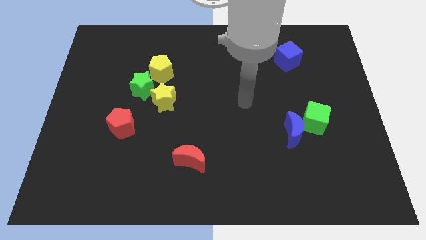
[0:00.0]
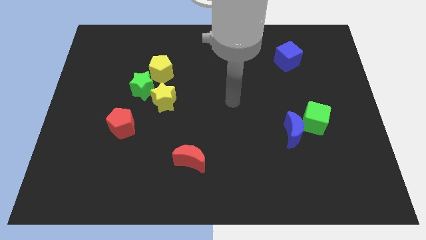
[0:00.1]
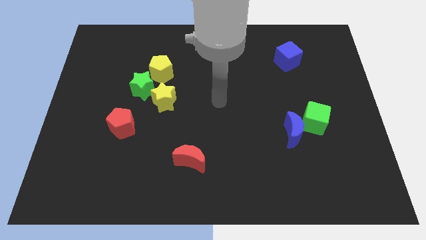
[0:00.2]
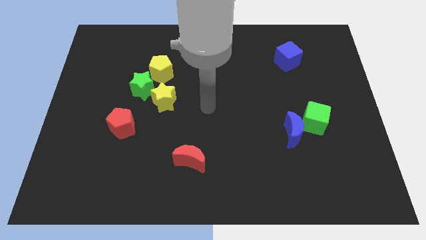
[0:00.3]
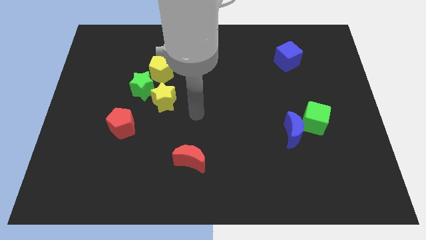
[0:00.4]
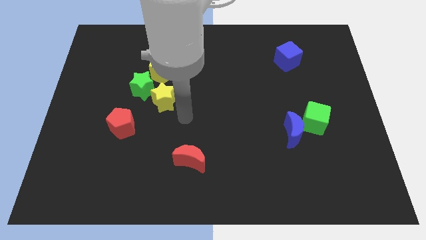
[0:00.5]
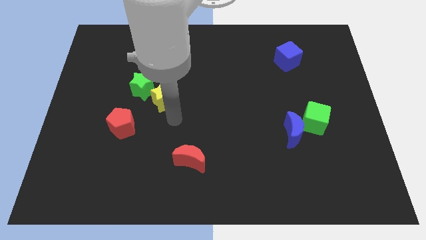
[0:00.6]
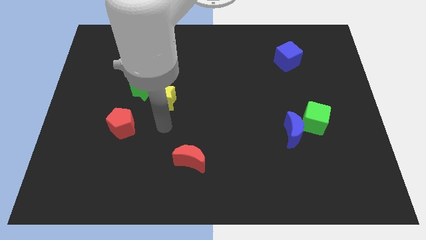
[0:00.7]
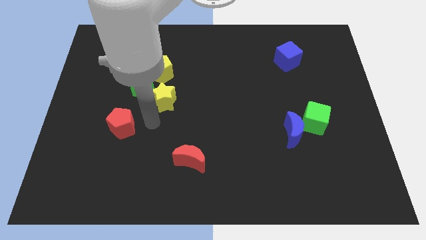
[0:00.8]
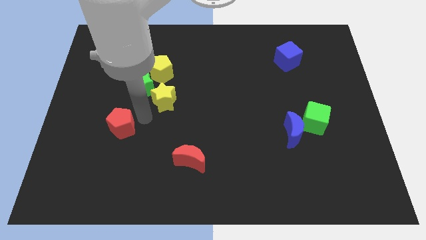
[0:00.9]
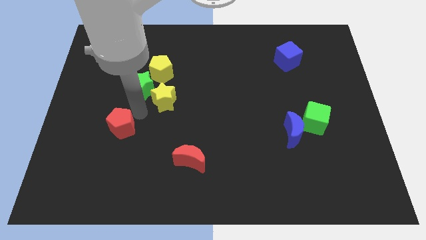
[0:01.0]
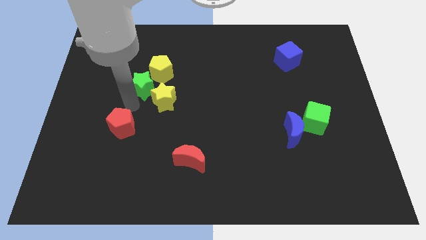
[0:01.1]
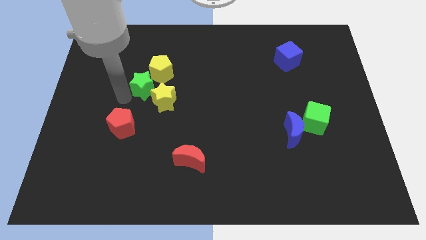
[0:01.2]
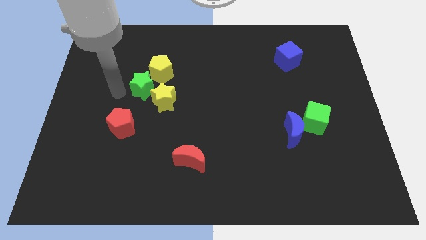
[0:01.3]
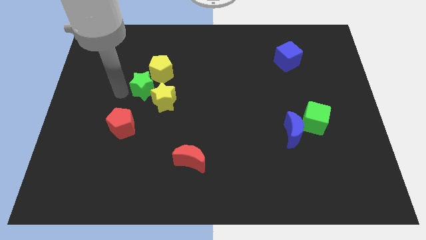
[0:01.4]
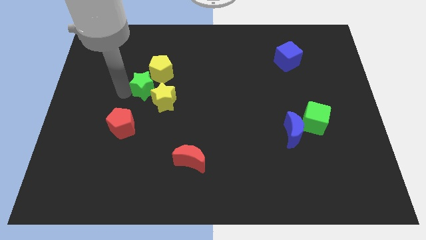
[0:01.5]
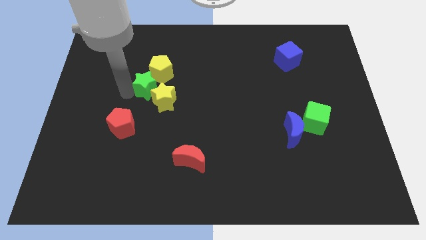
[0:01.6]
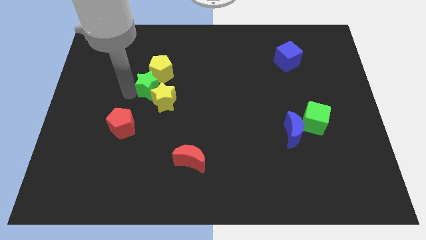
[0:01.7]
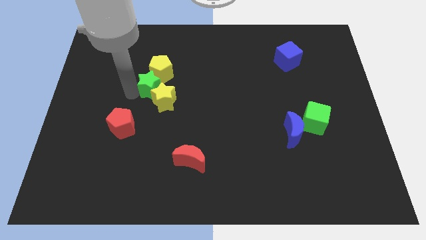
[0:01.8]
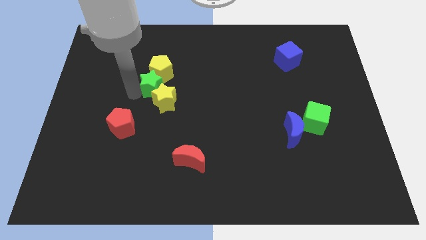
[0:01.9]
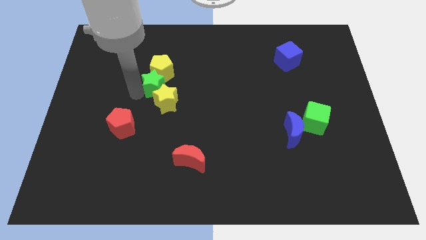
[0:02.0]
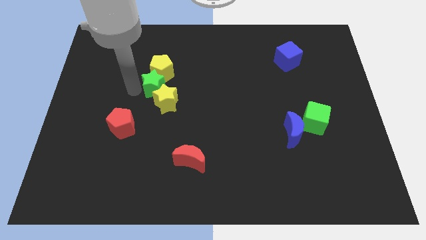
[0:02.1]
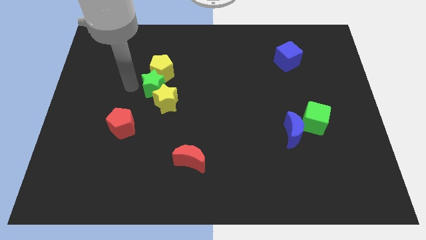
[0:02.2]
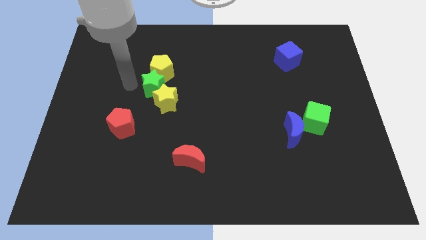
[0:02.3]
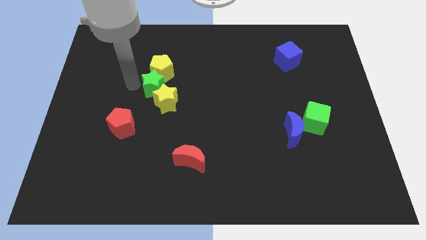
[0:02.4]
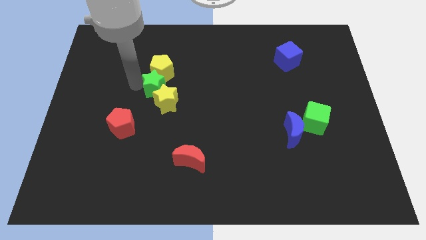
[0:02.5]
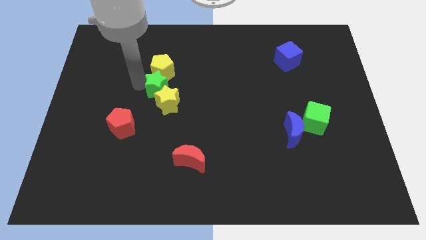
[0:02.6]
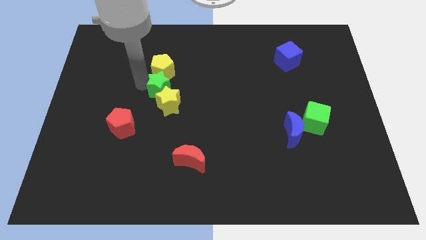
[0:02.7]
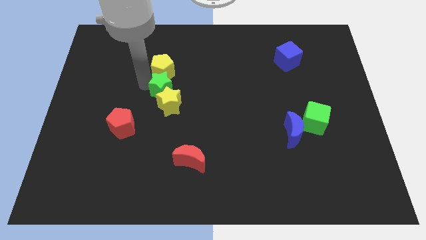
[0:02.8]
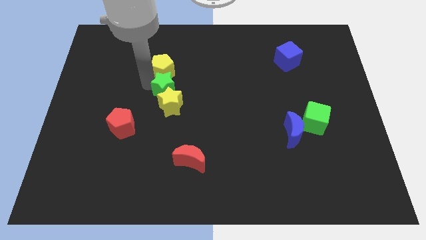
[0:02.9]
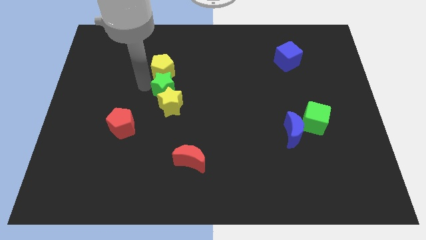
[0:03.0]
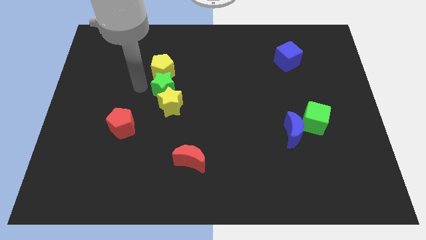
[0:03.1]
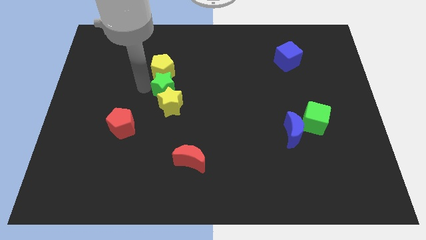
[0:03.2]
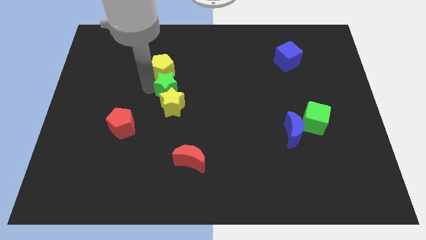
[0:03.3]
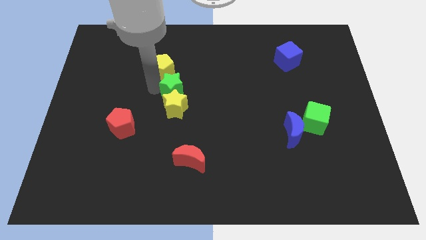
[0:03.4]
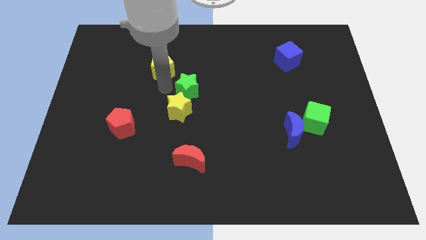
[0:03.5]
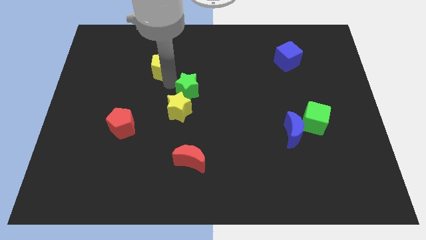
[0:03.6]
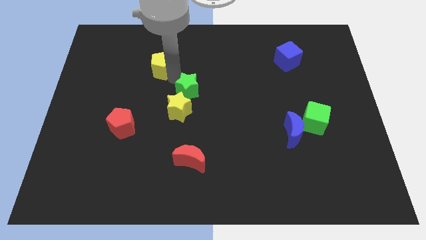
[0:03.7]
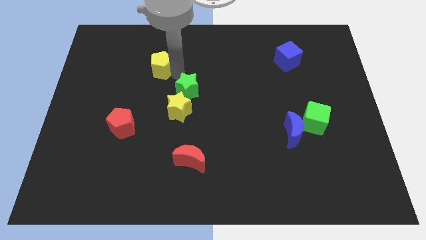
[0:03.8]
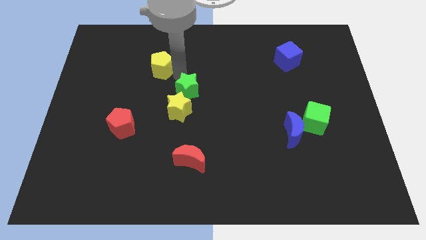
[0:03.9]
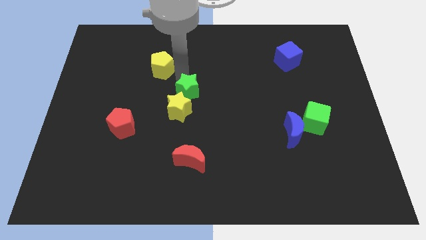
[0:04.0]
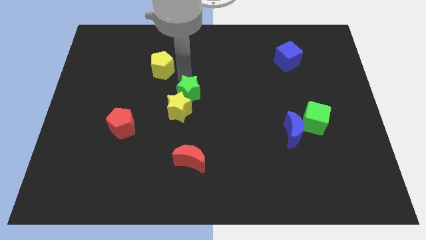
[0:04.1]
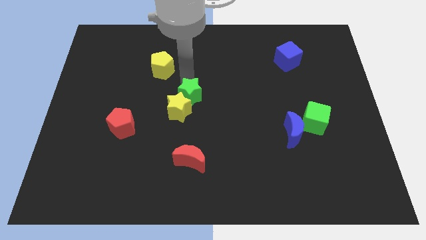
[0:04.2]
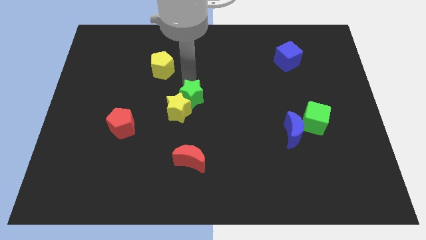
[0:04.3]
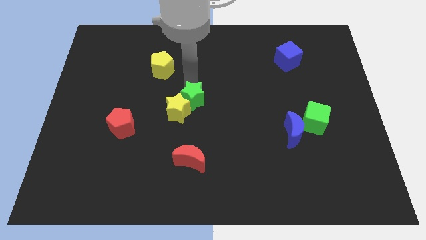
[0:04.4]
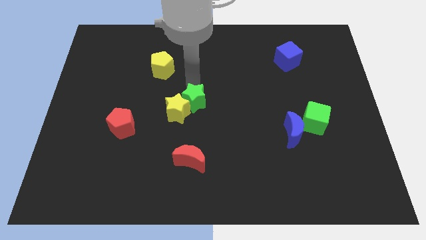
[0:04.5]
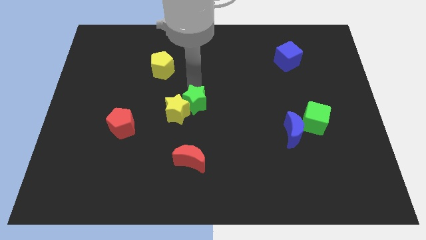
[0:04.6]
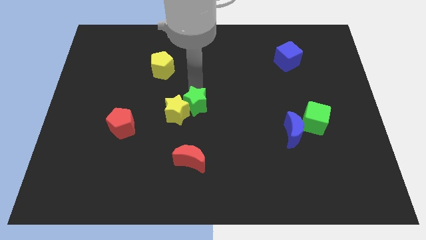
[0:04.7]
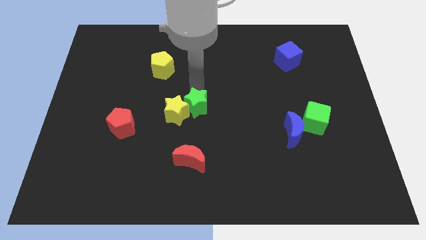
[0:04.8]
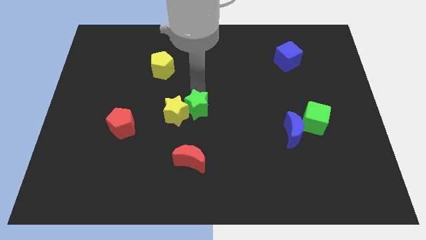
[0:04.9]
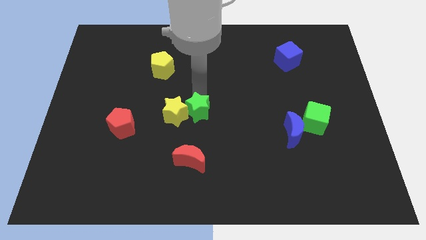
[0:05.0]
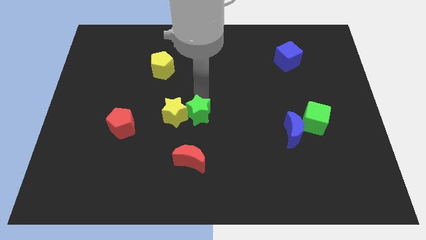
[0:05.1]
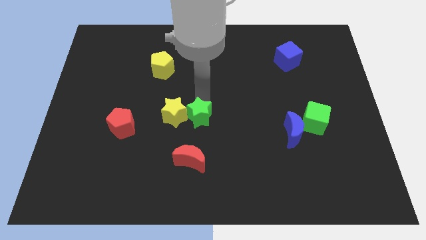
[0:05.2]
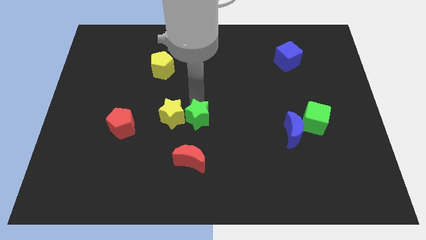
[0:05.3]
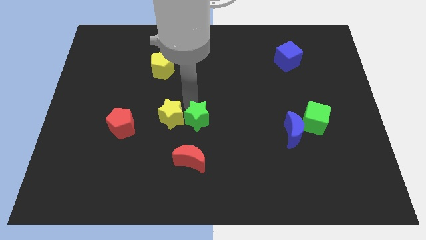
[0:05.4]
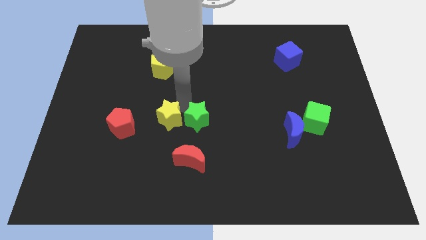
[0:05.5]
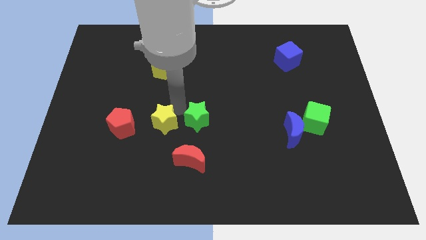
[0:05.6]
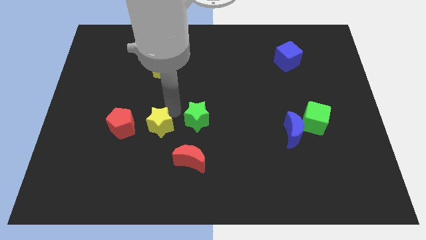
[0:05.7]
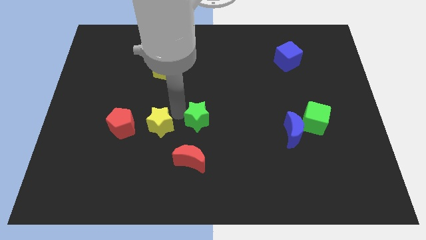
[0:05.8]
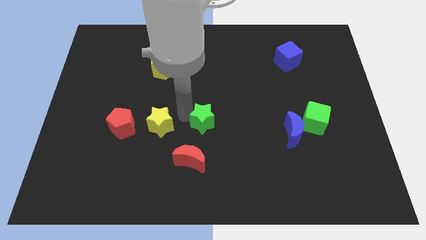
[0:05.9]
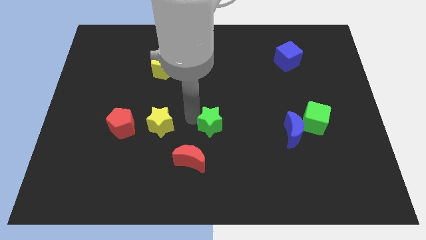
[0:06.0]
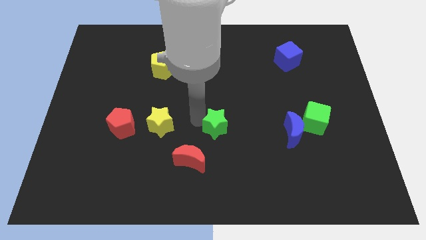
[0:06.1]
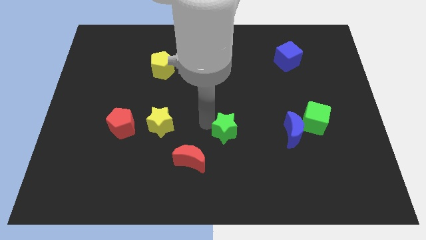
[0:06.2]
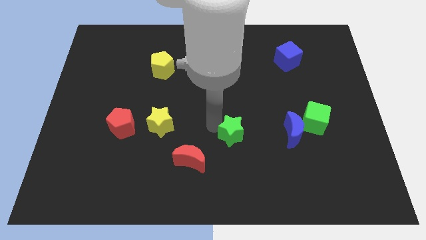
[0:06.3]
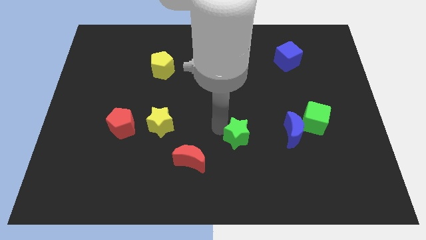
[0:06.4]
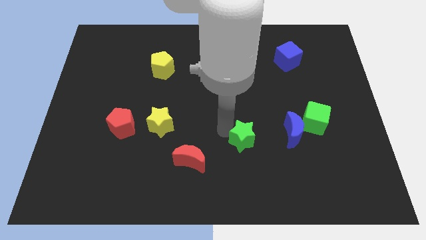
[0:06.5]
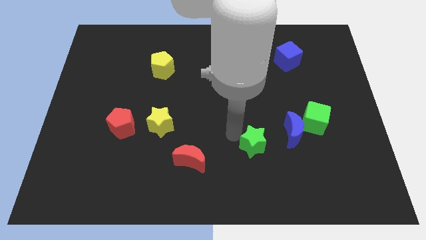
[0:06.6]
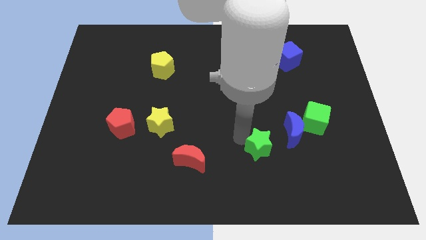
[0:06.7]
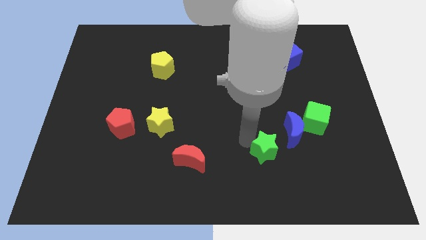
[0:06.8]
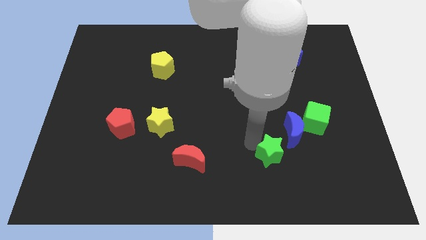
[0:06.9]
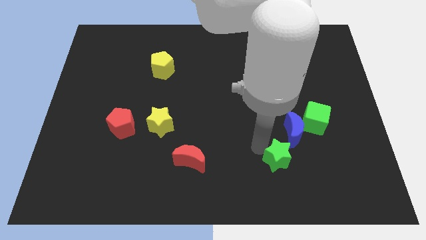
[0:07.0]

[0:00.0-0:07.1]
put the green star below the blue moon
